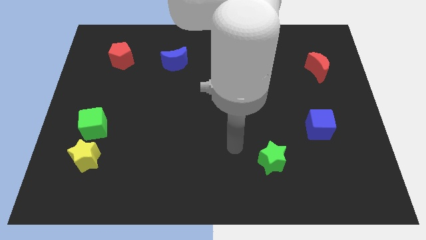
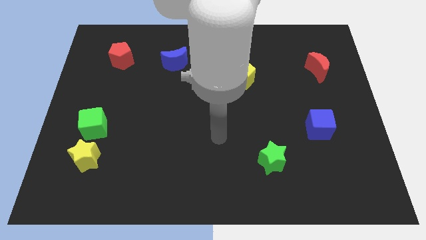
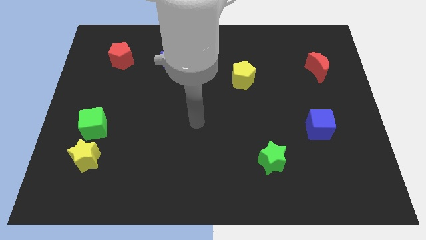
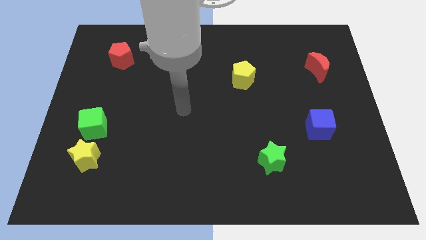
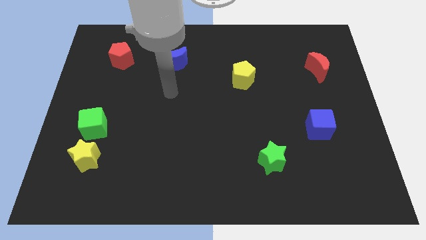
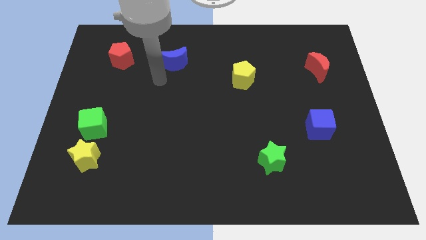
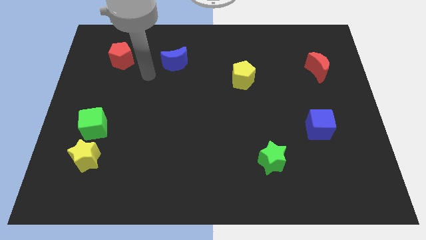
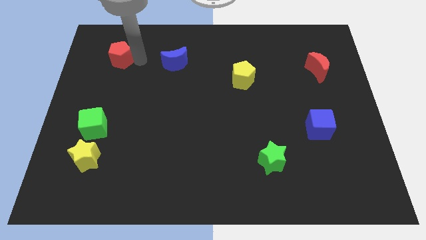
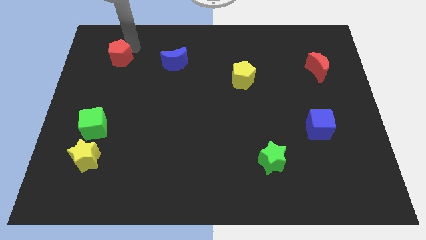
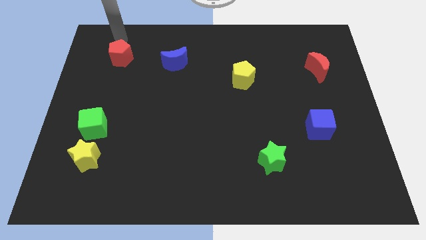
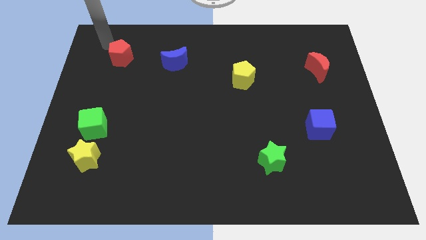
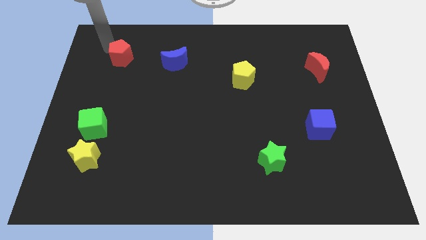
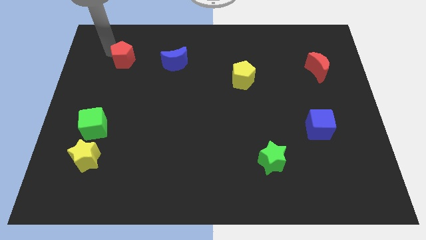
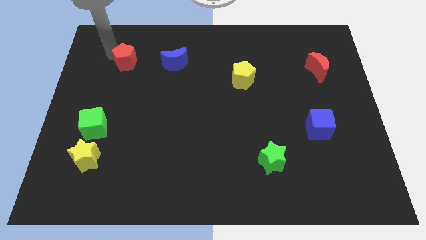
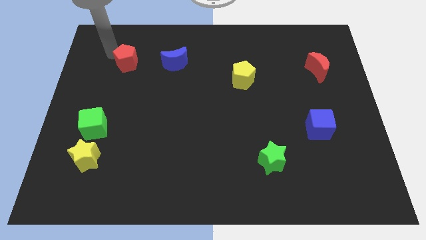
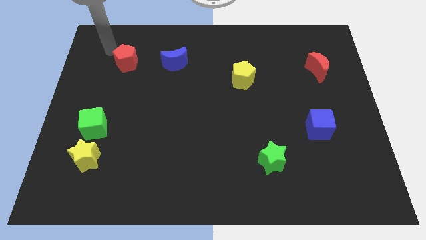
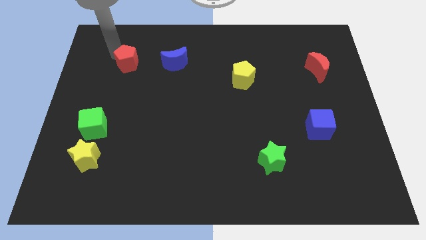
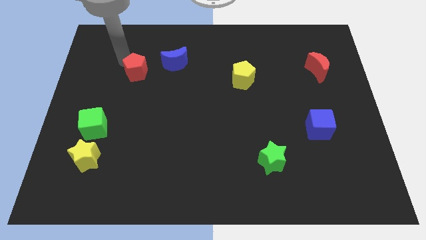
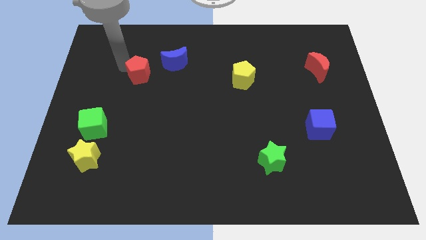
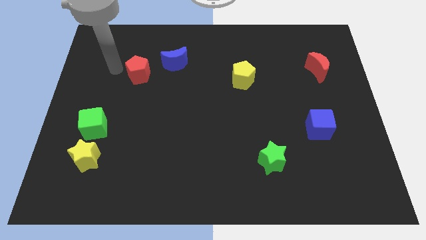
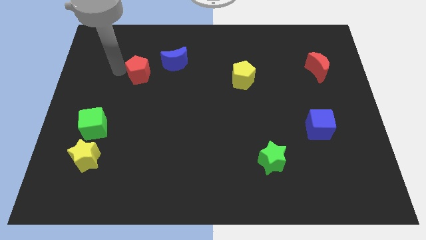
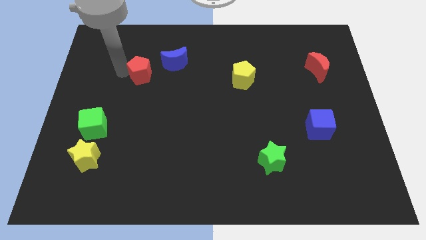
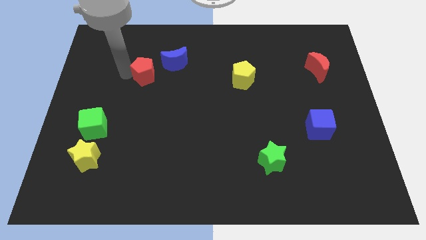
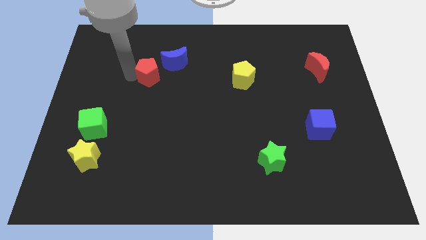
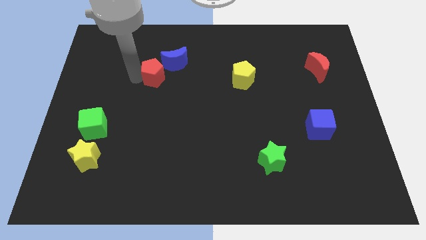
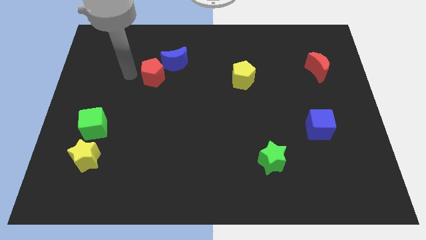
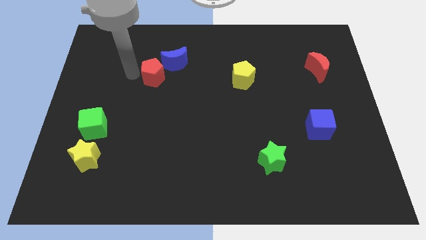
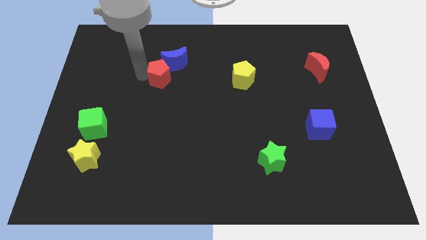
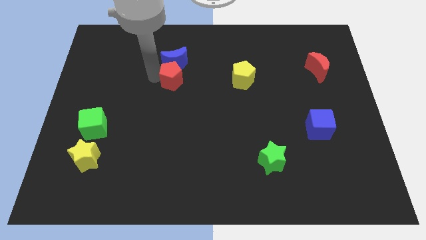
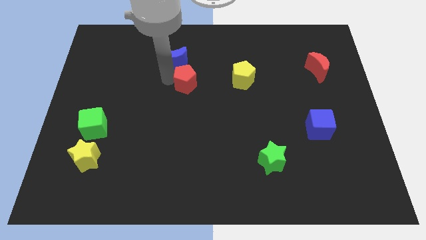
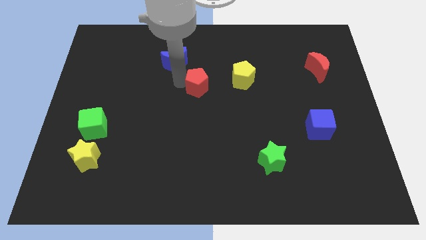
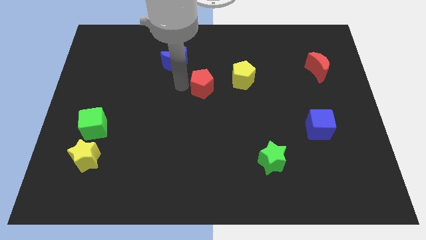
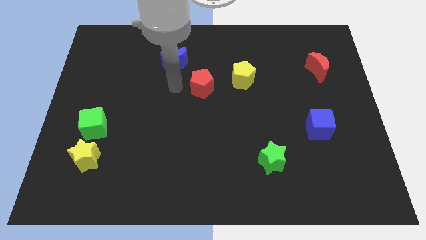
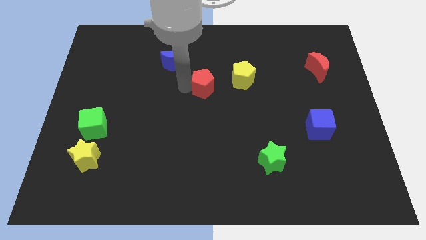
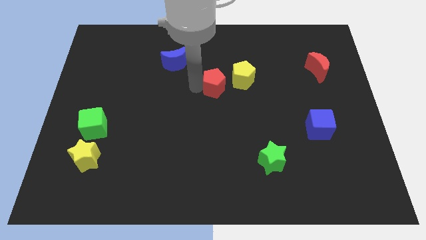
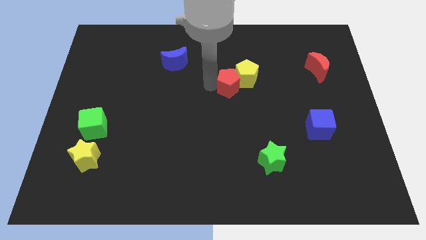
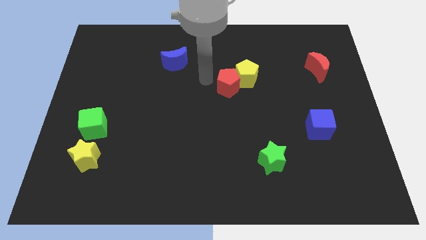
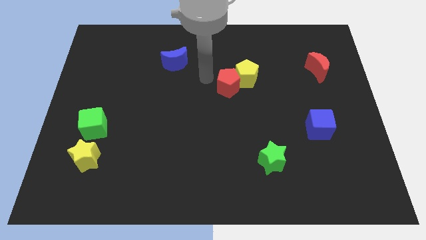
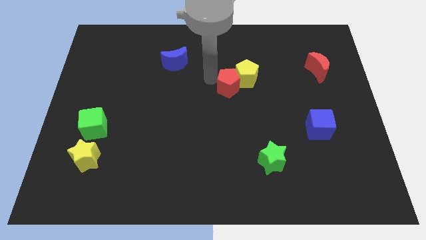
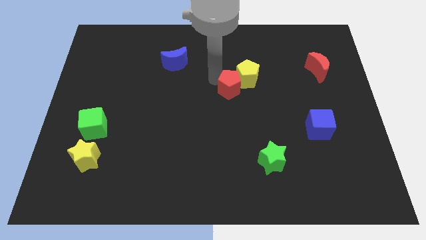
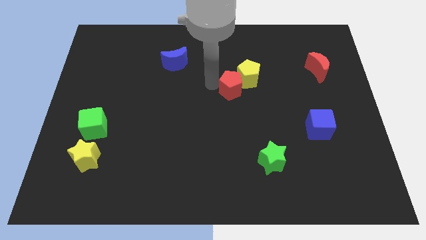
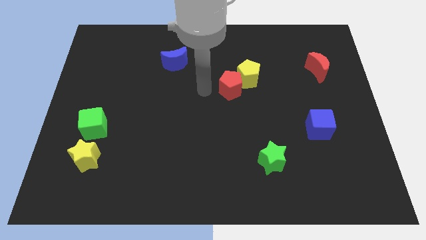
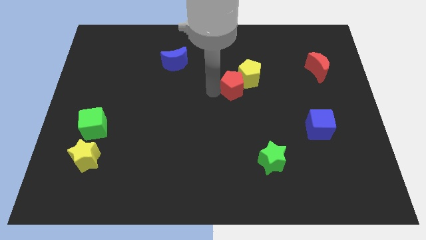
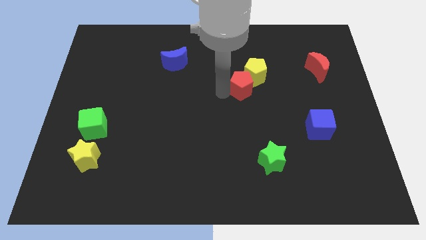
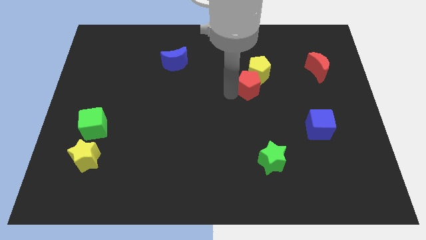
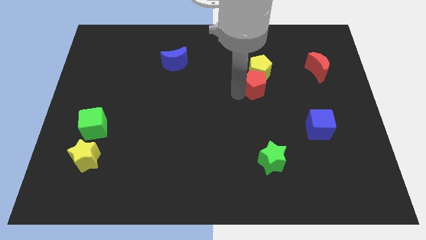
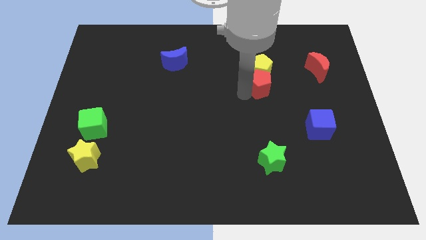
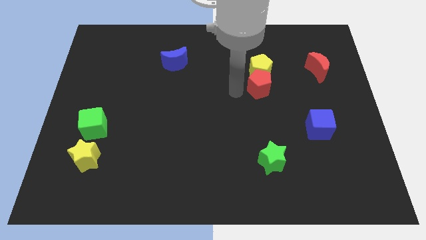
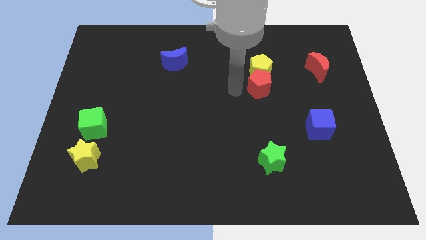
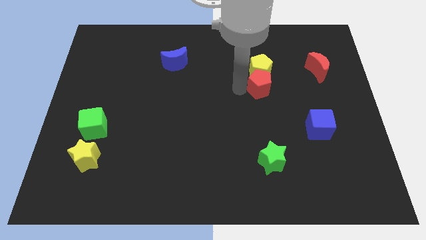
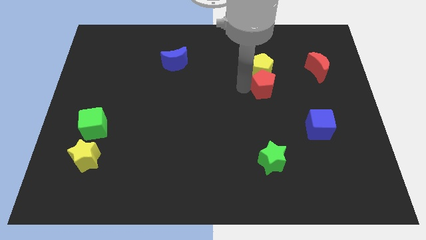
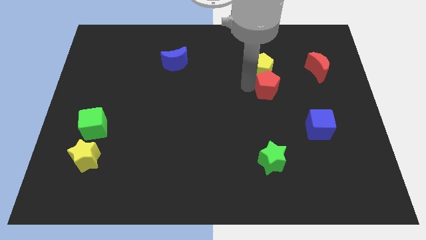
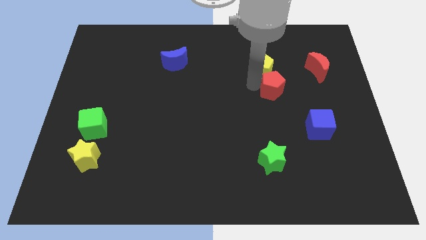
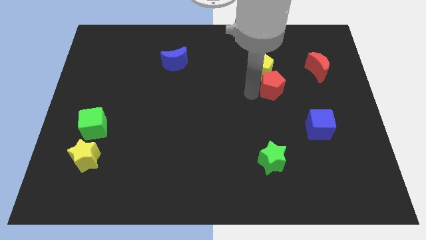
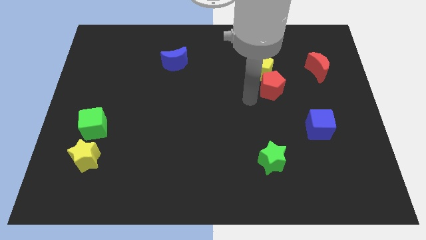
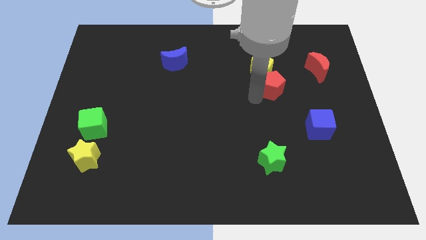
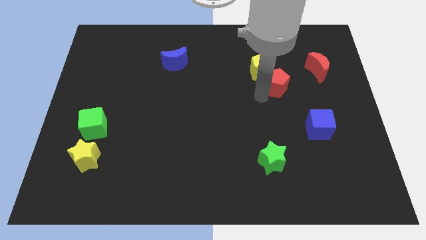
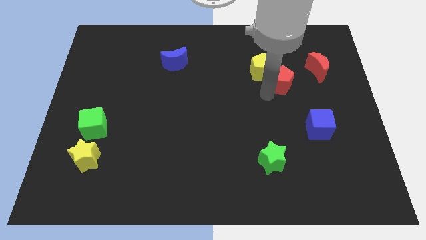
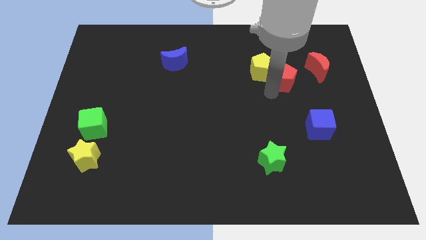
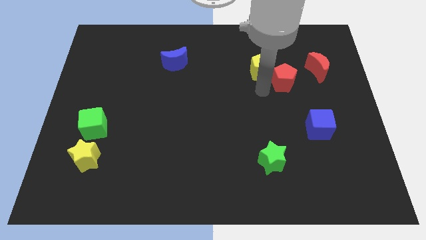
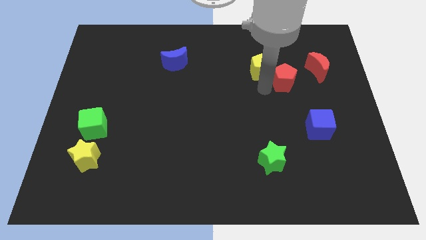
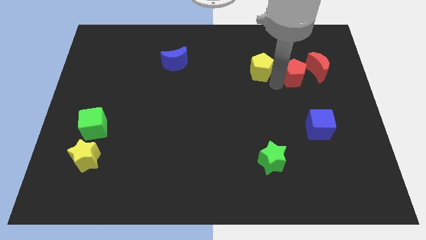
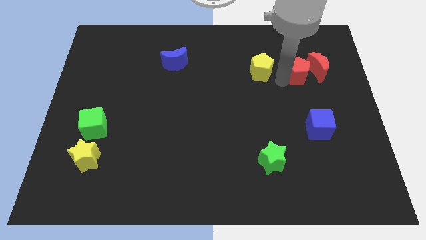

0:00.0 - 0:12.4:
slide the red pentagon next to the red moon

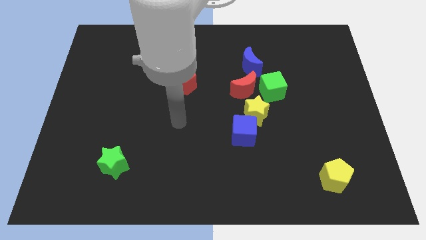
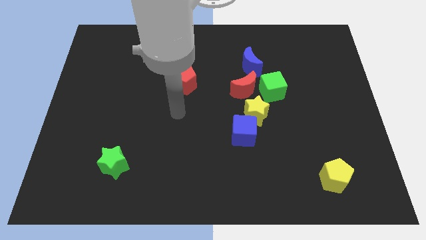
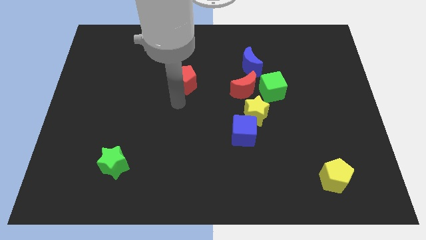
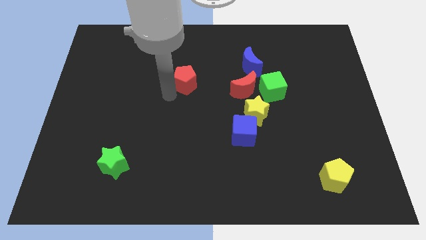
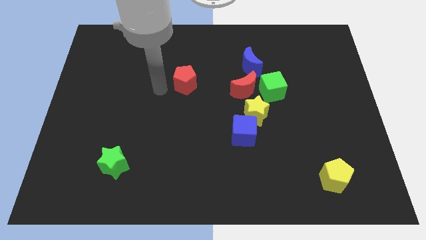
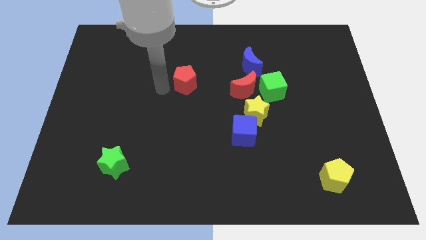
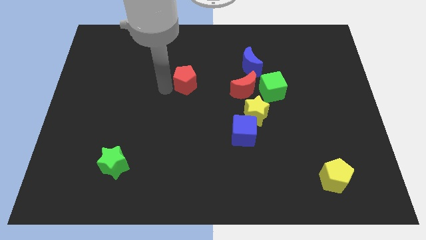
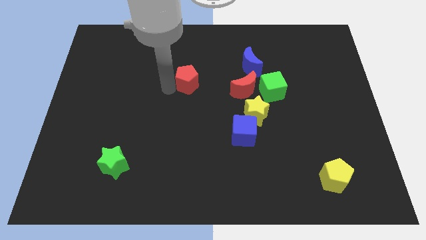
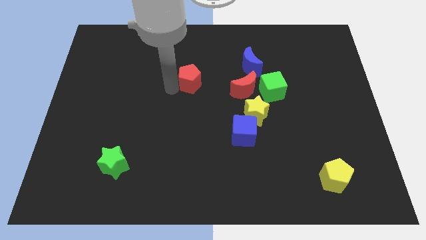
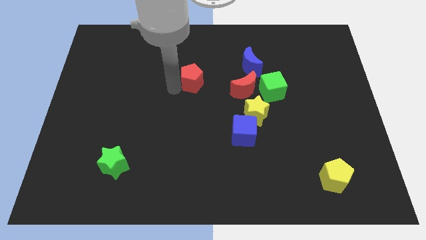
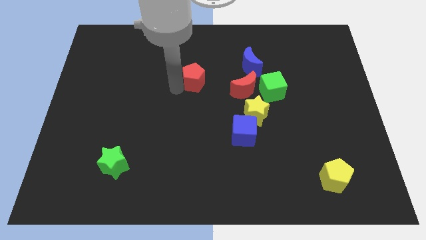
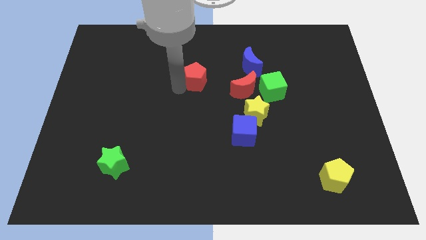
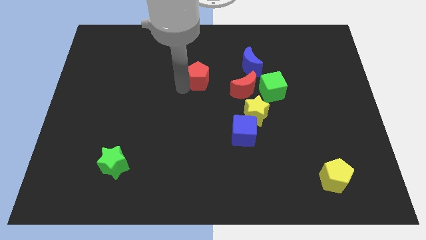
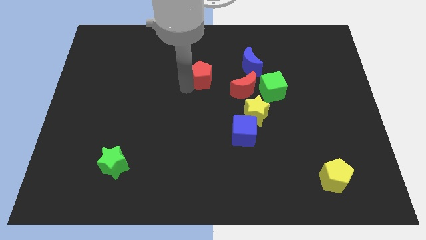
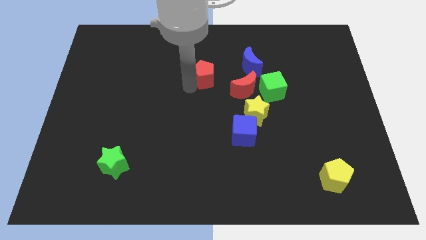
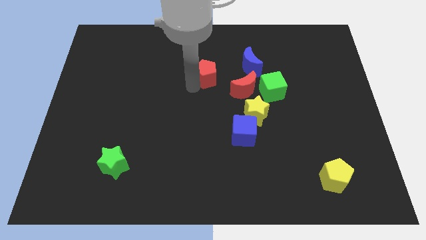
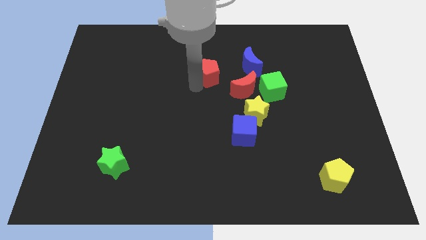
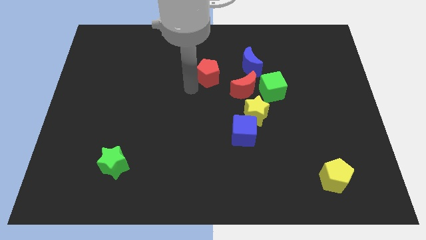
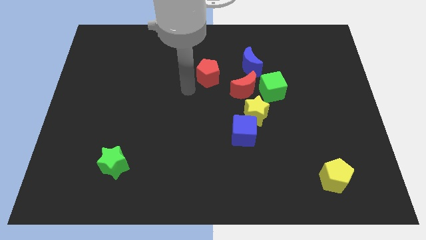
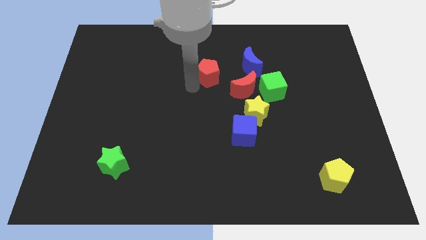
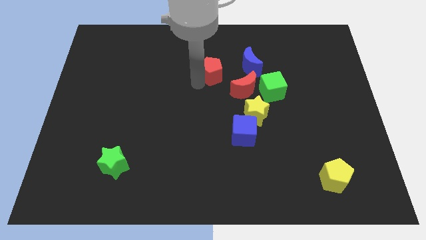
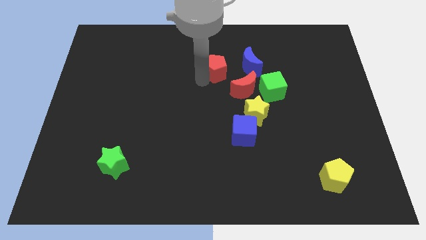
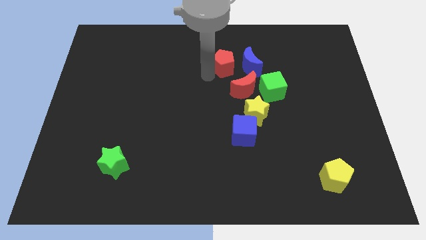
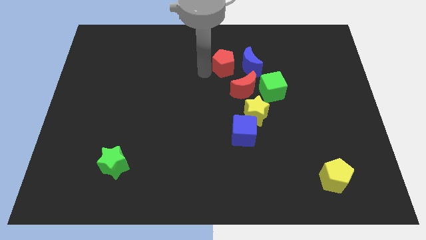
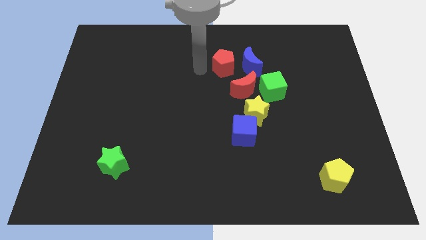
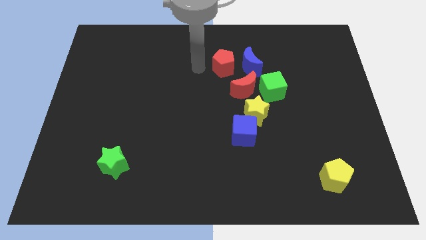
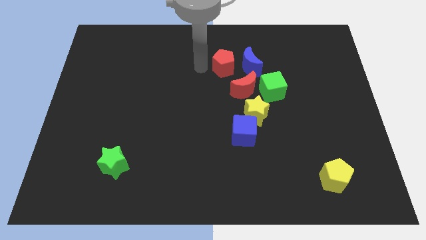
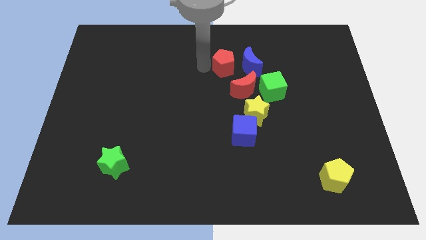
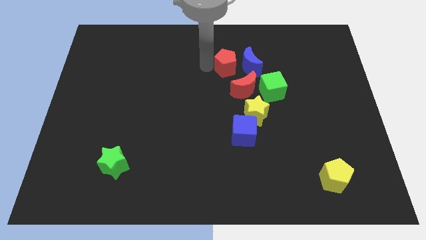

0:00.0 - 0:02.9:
move the red pentagon to the blue moon
